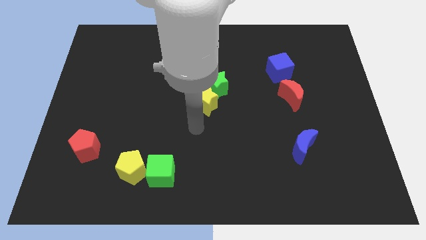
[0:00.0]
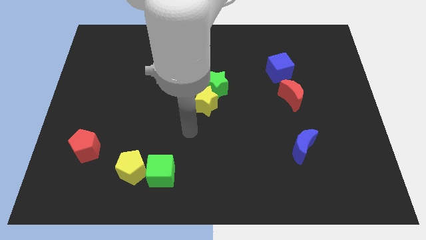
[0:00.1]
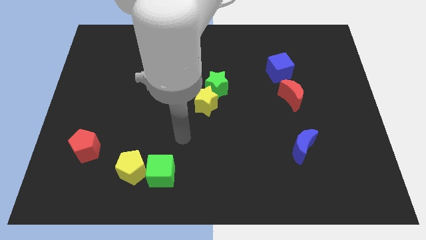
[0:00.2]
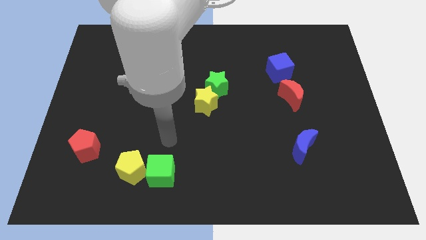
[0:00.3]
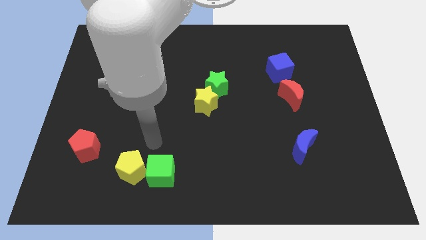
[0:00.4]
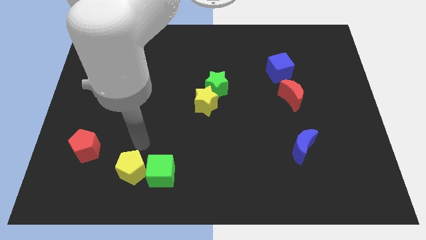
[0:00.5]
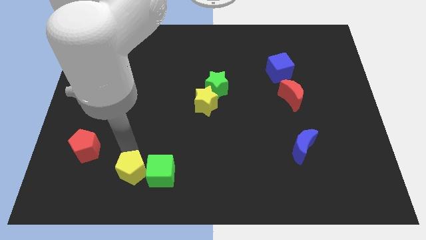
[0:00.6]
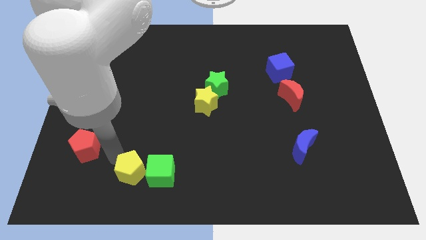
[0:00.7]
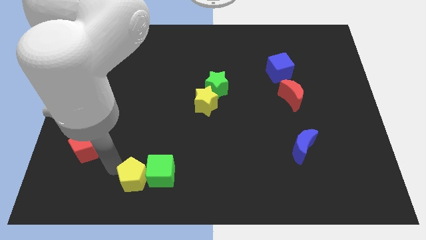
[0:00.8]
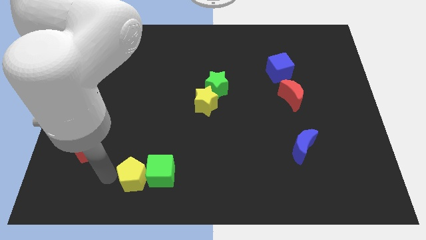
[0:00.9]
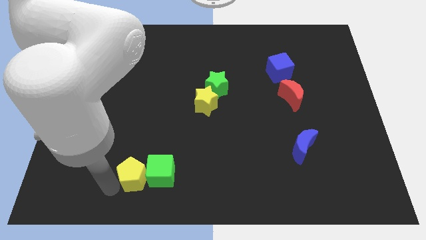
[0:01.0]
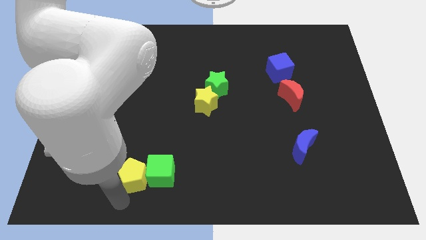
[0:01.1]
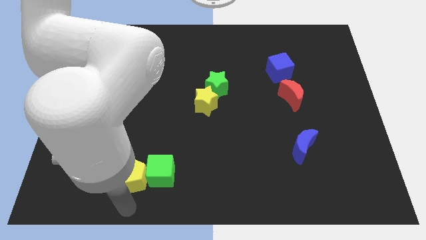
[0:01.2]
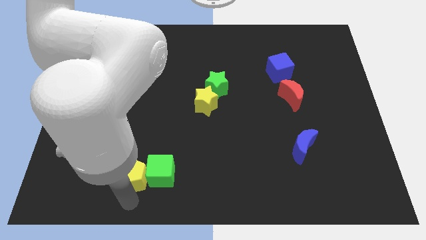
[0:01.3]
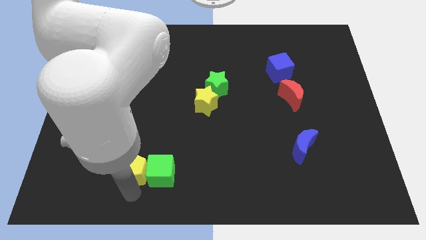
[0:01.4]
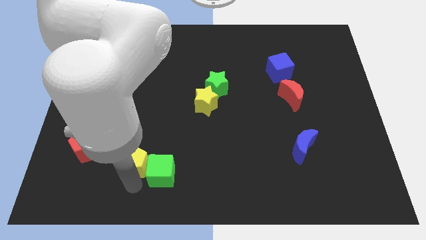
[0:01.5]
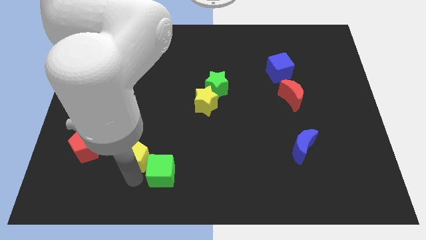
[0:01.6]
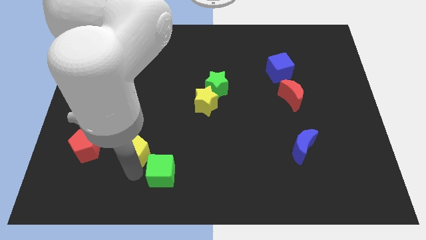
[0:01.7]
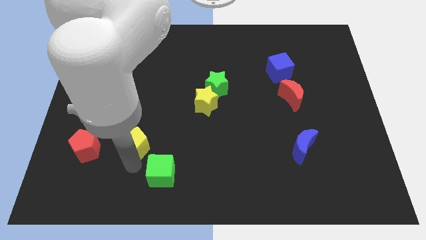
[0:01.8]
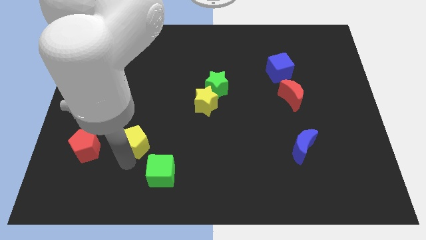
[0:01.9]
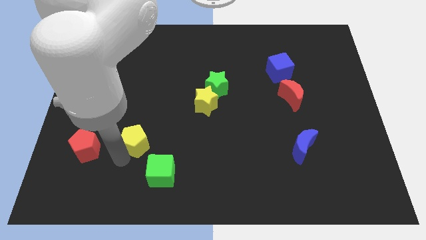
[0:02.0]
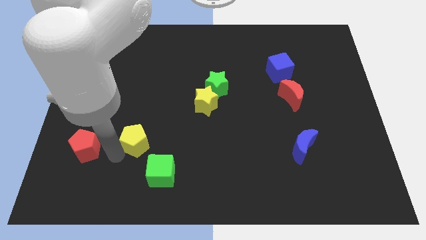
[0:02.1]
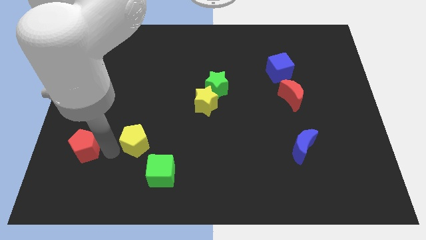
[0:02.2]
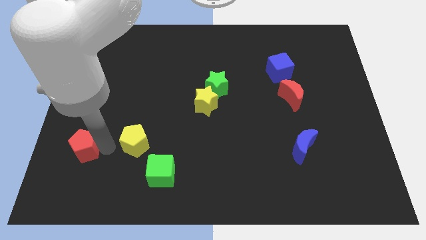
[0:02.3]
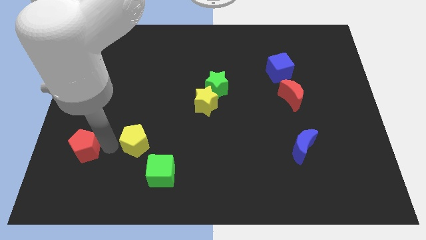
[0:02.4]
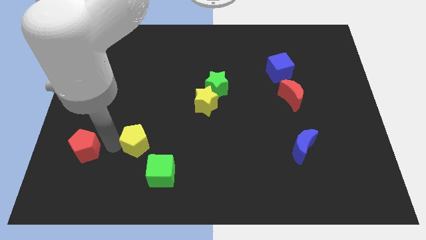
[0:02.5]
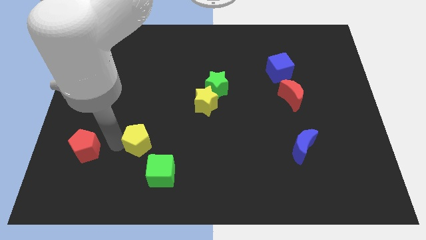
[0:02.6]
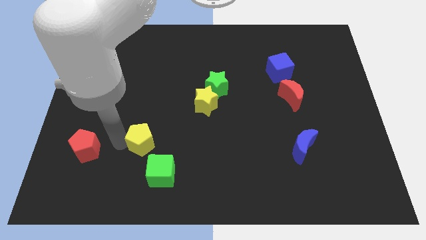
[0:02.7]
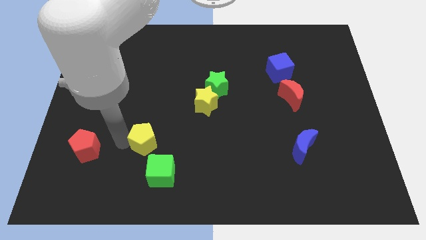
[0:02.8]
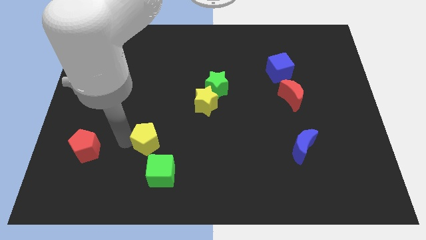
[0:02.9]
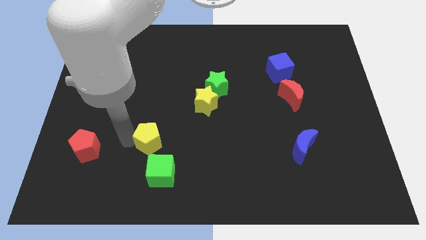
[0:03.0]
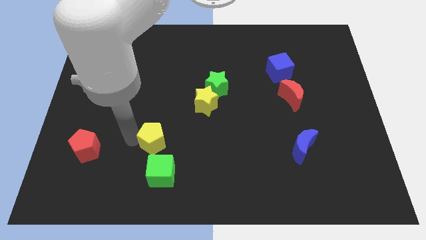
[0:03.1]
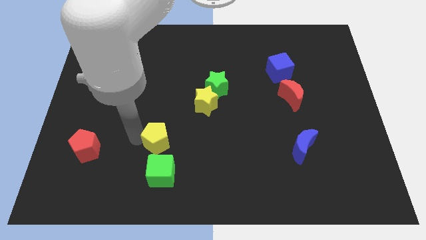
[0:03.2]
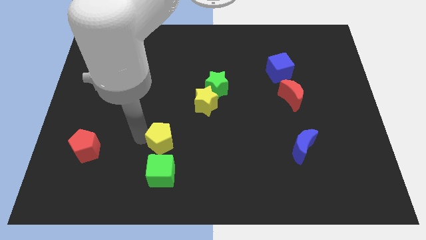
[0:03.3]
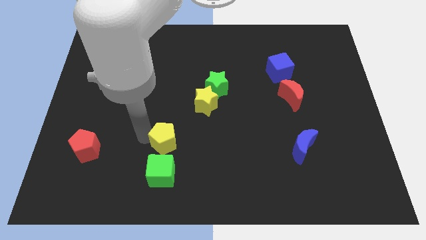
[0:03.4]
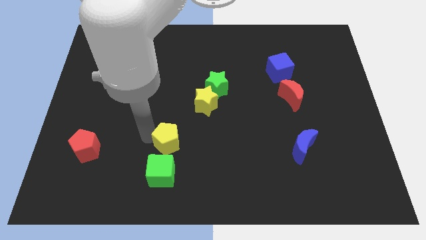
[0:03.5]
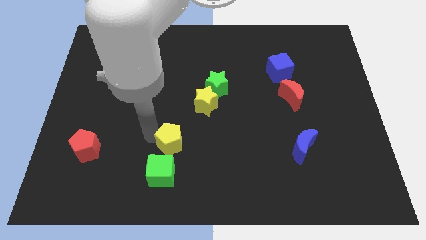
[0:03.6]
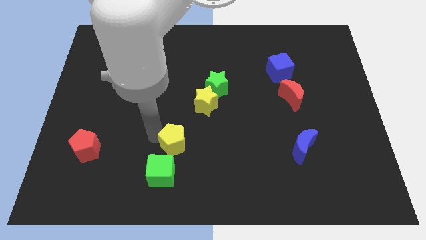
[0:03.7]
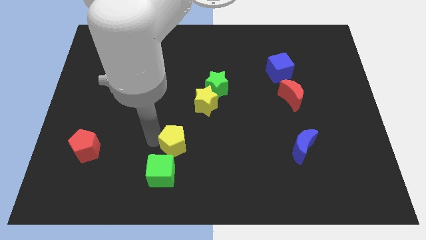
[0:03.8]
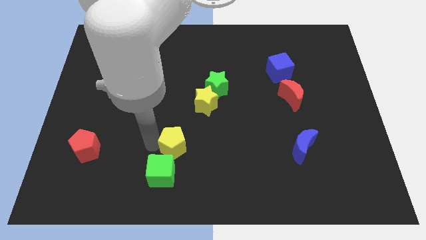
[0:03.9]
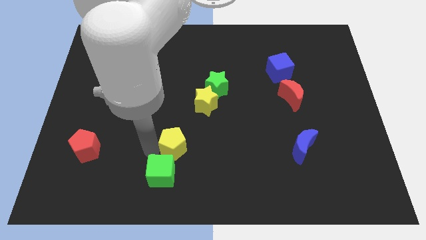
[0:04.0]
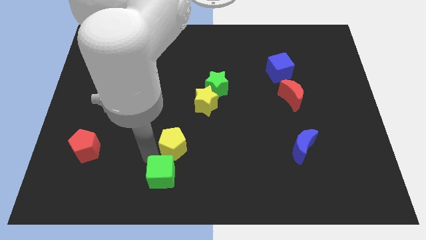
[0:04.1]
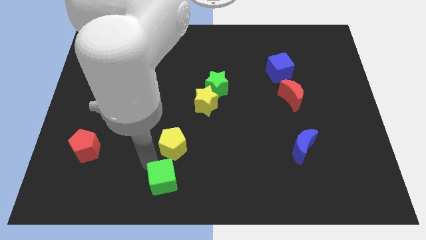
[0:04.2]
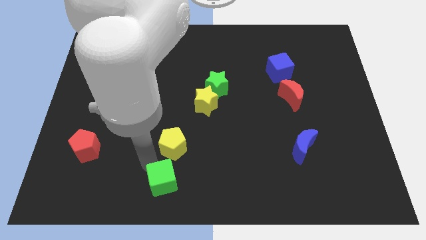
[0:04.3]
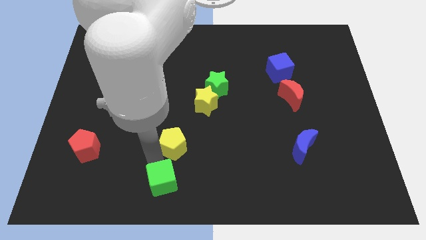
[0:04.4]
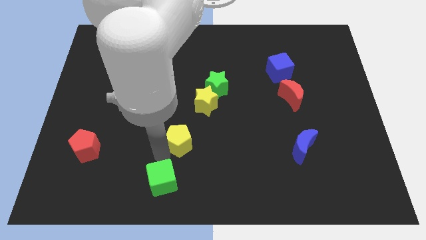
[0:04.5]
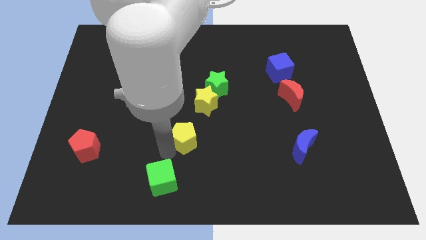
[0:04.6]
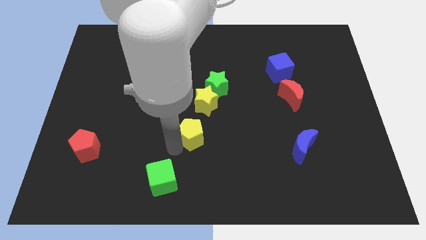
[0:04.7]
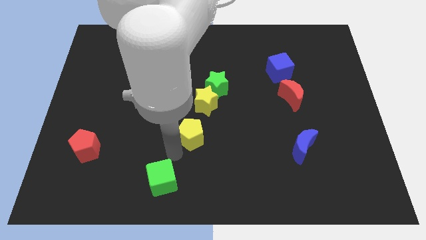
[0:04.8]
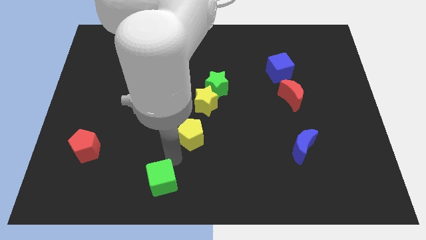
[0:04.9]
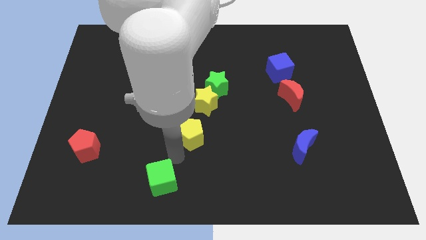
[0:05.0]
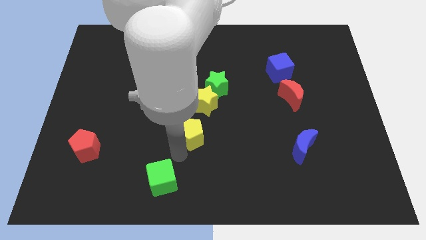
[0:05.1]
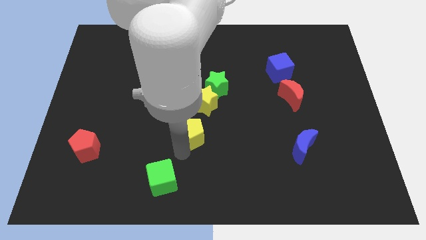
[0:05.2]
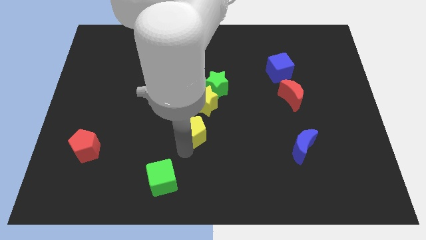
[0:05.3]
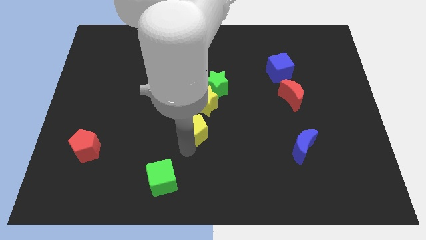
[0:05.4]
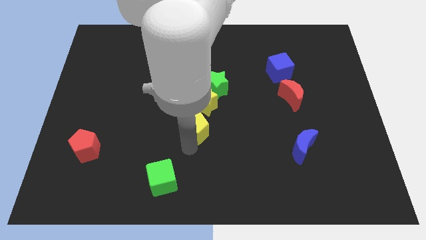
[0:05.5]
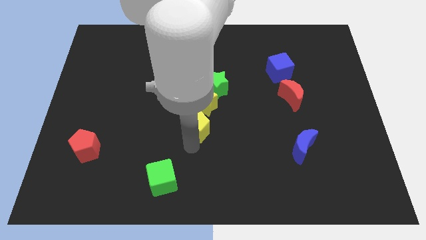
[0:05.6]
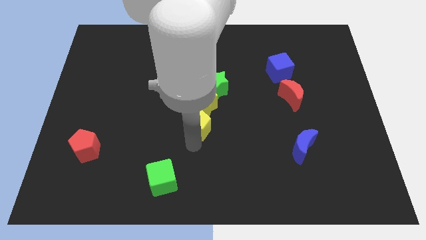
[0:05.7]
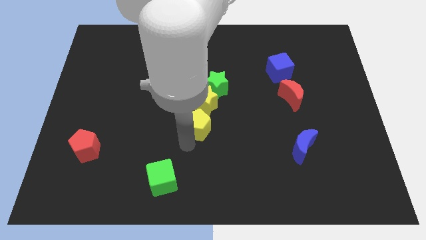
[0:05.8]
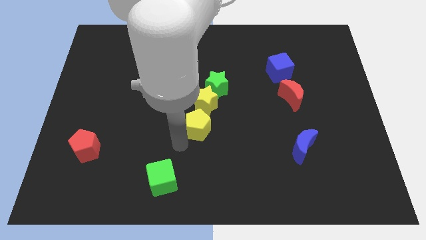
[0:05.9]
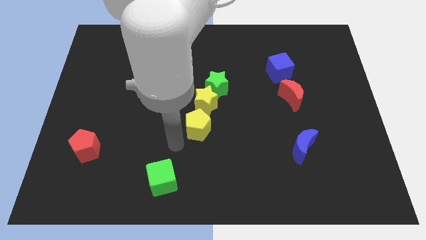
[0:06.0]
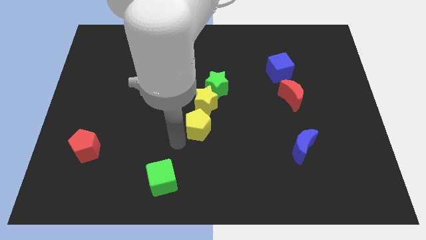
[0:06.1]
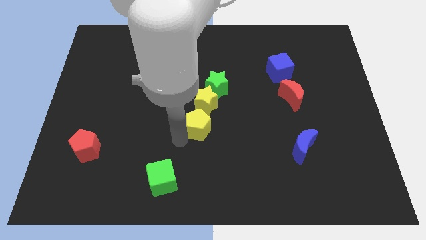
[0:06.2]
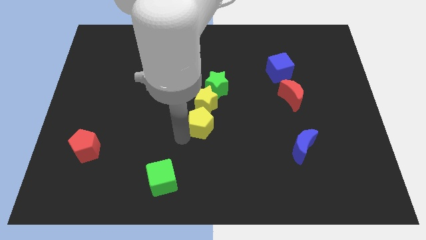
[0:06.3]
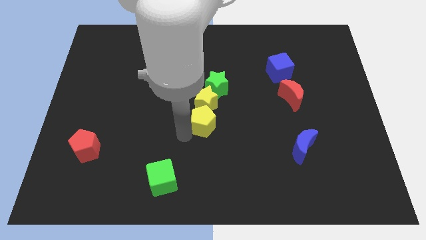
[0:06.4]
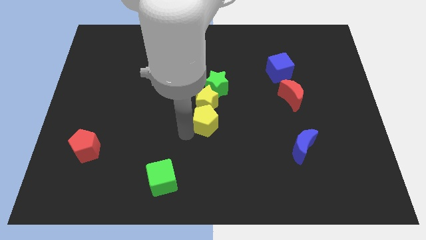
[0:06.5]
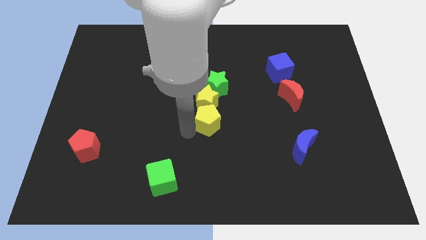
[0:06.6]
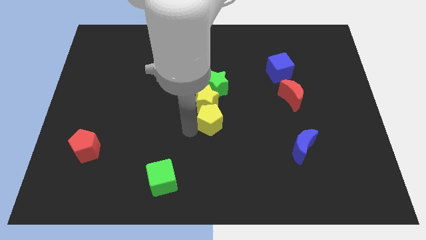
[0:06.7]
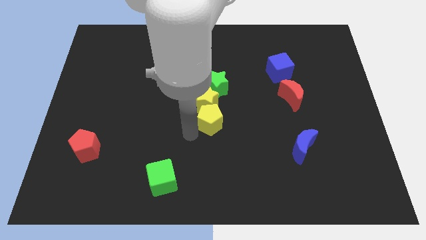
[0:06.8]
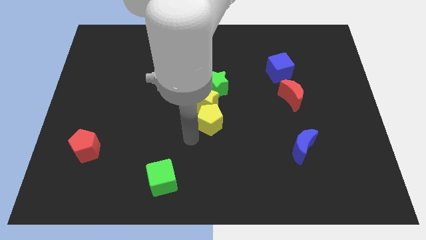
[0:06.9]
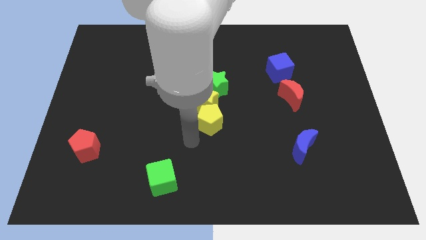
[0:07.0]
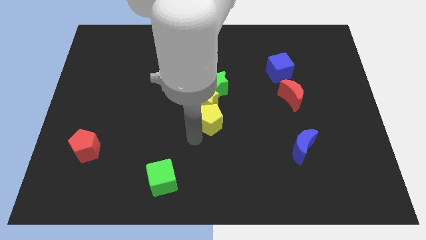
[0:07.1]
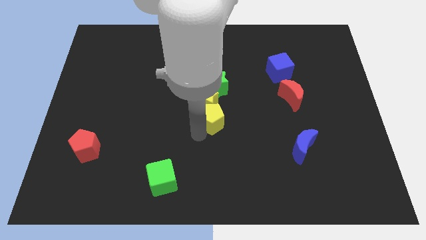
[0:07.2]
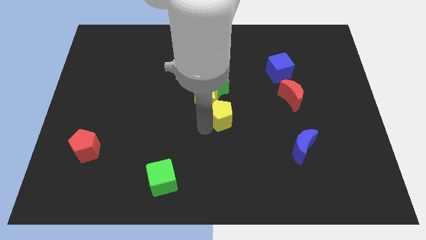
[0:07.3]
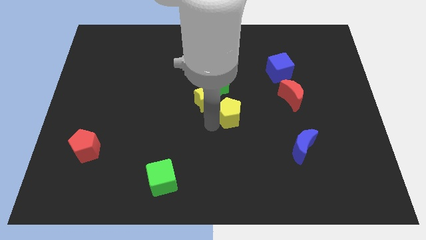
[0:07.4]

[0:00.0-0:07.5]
slide the yellow pentagon to the bottom right side of the green star
